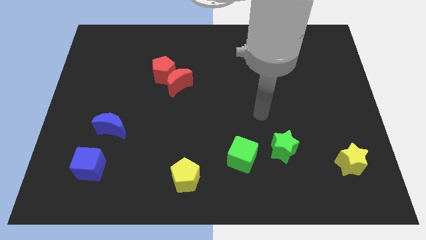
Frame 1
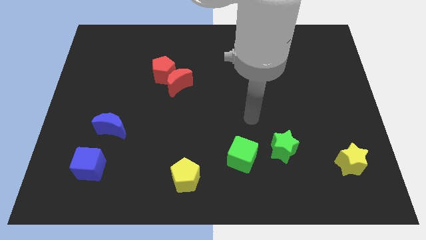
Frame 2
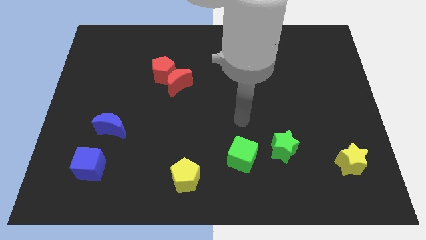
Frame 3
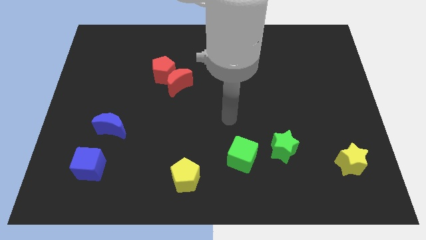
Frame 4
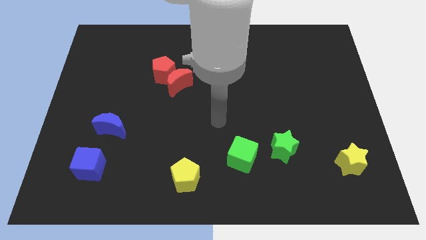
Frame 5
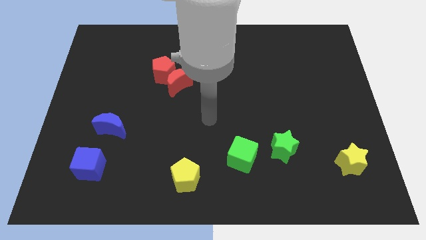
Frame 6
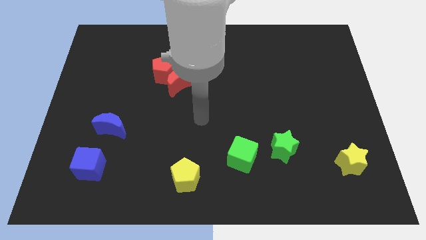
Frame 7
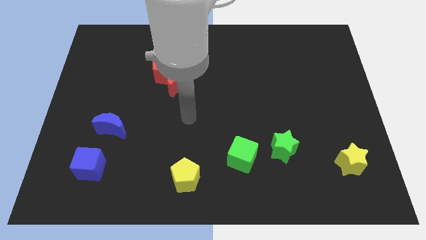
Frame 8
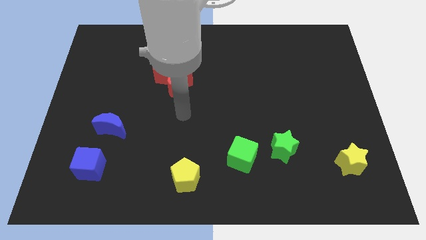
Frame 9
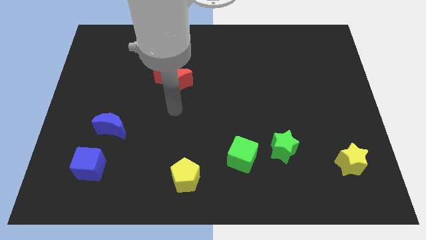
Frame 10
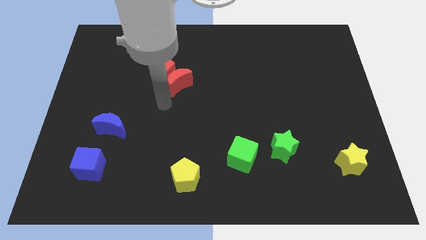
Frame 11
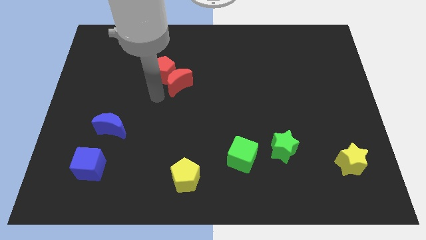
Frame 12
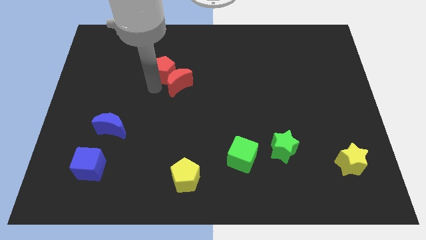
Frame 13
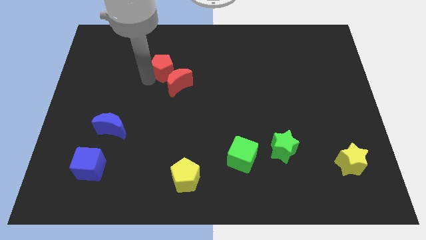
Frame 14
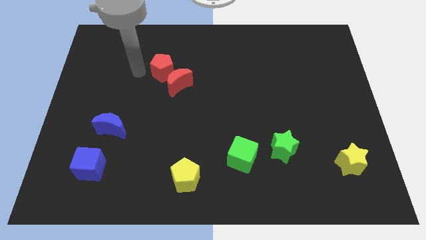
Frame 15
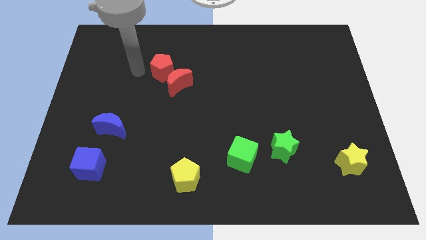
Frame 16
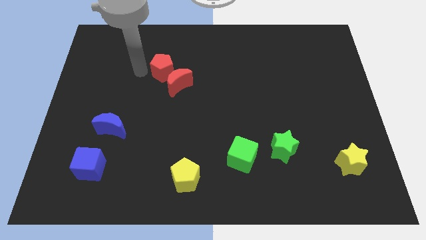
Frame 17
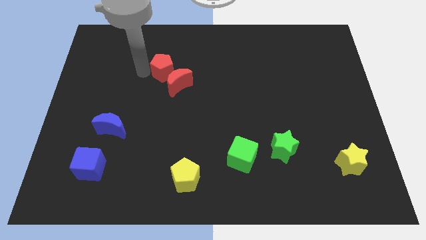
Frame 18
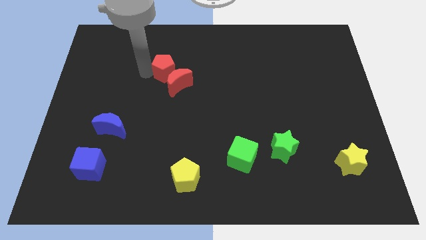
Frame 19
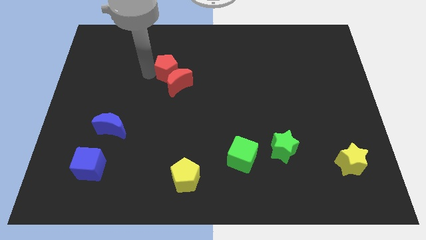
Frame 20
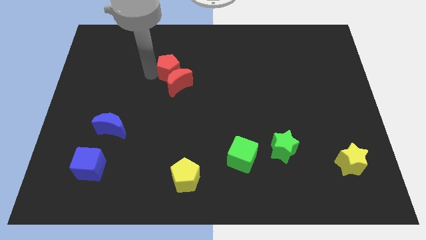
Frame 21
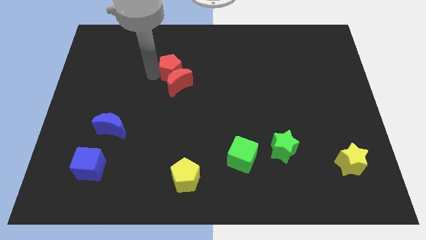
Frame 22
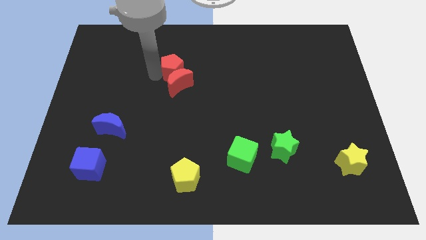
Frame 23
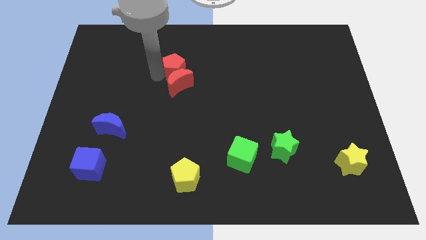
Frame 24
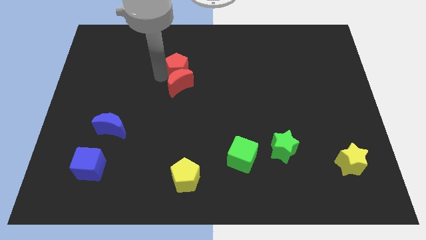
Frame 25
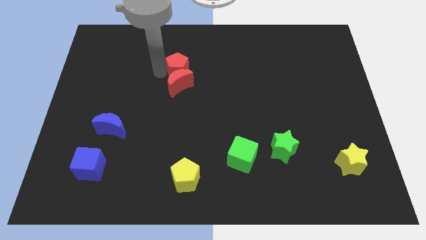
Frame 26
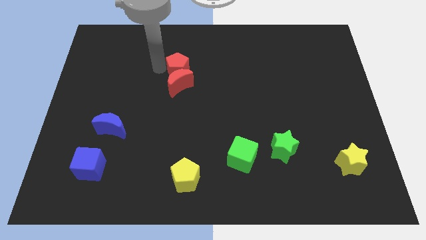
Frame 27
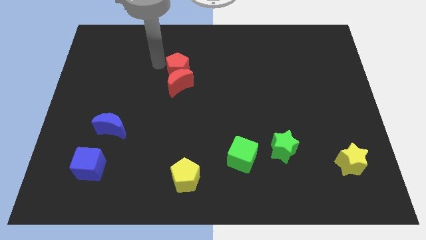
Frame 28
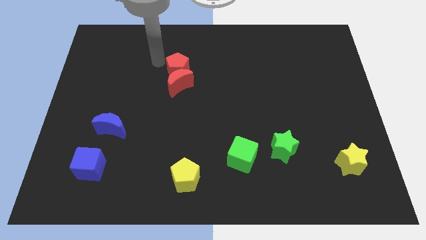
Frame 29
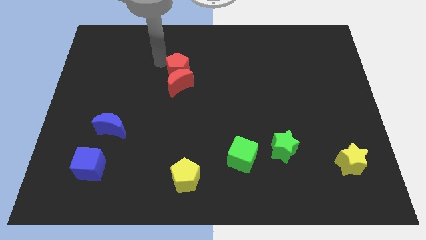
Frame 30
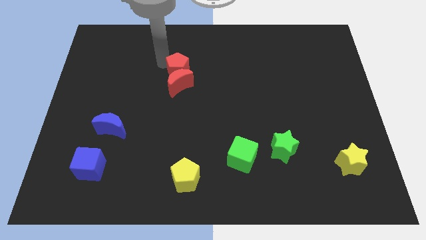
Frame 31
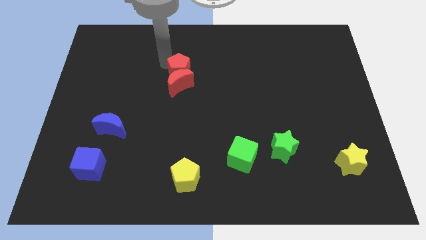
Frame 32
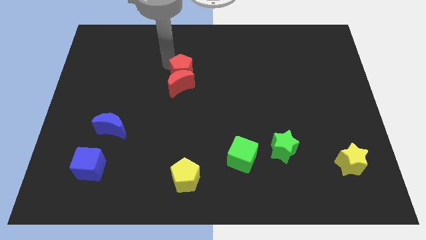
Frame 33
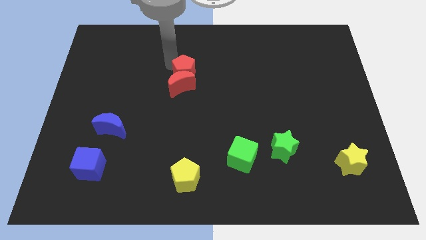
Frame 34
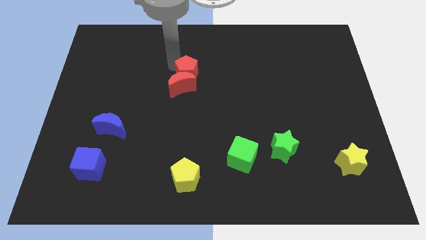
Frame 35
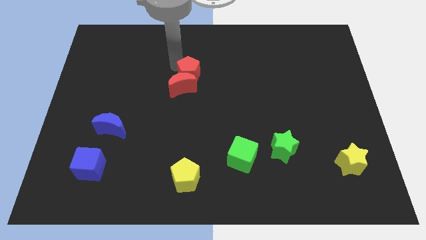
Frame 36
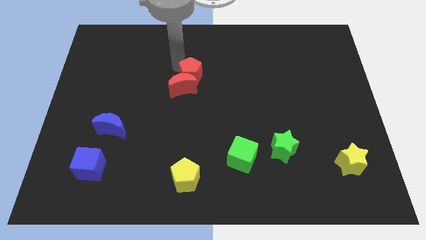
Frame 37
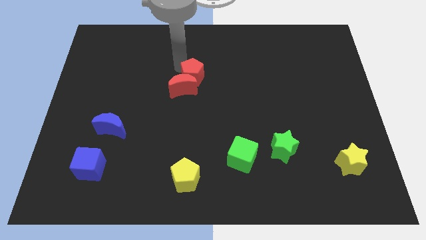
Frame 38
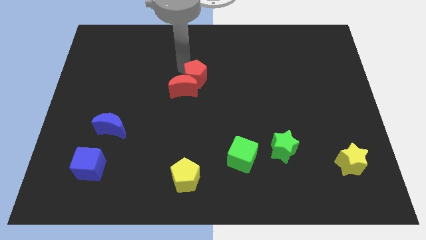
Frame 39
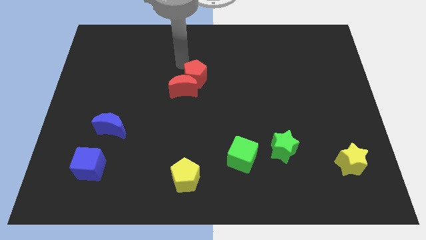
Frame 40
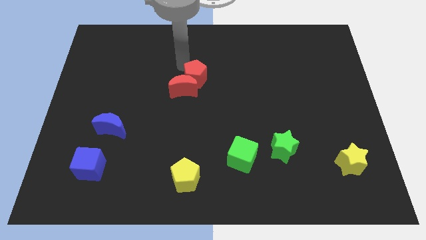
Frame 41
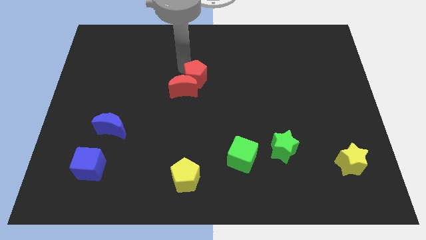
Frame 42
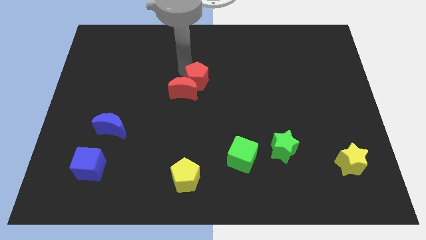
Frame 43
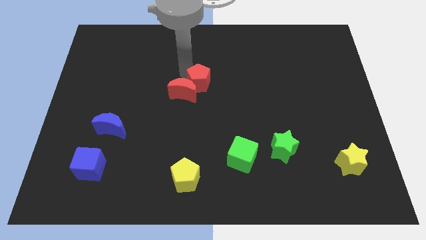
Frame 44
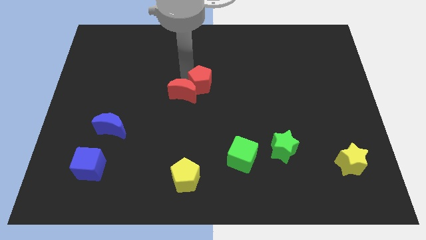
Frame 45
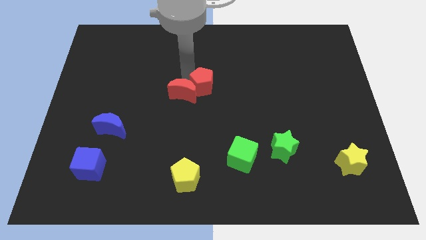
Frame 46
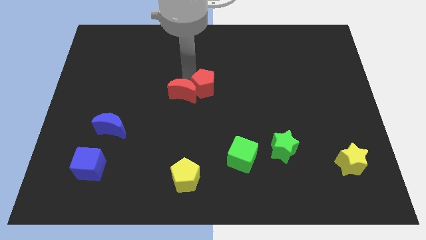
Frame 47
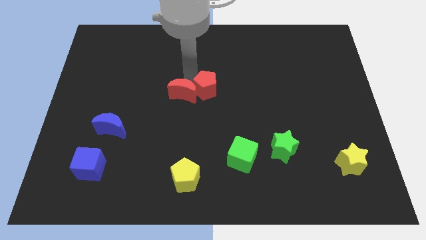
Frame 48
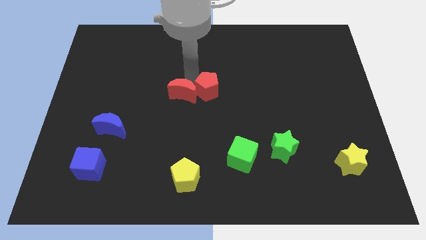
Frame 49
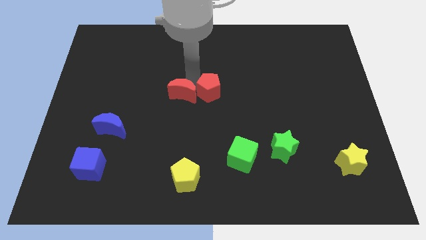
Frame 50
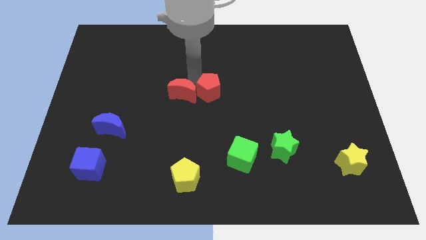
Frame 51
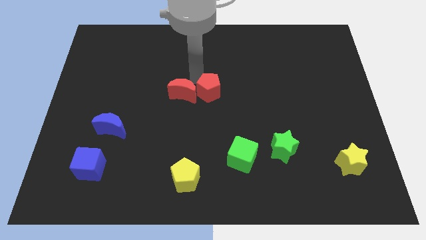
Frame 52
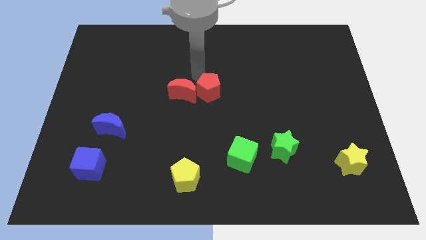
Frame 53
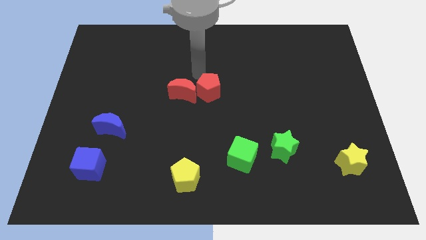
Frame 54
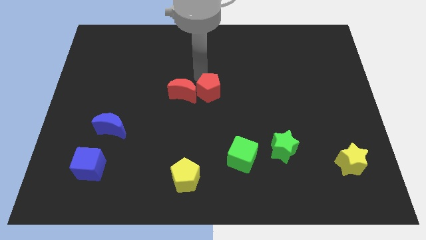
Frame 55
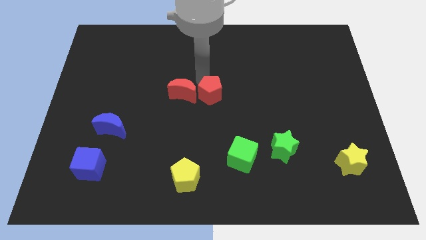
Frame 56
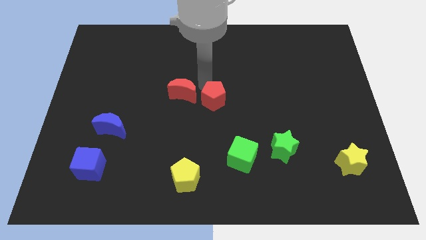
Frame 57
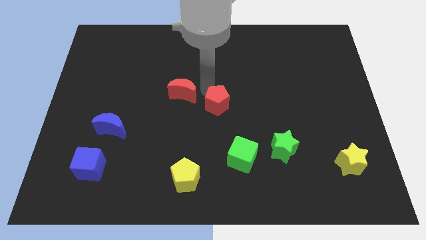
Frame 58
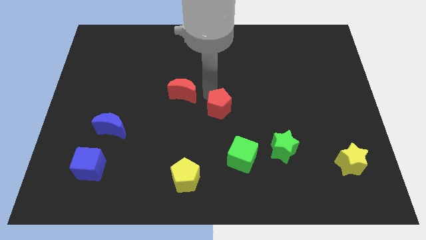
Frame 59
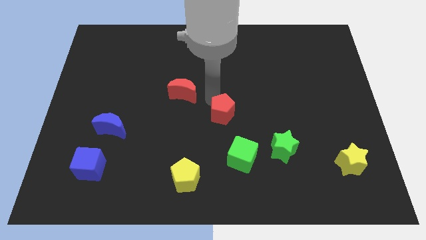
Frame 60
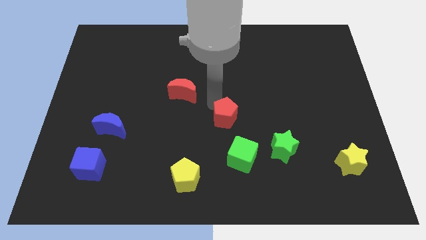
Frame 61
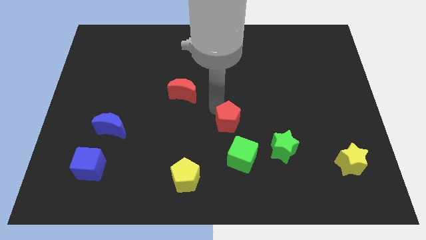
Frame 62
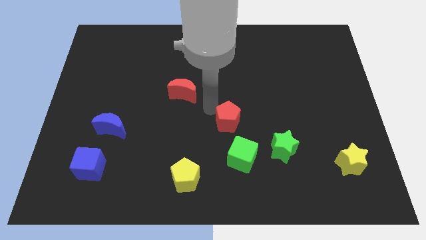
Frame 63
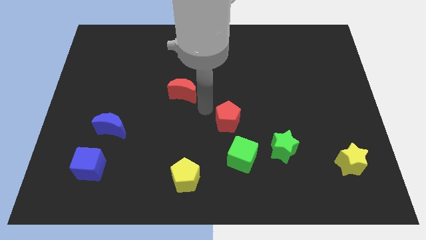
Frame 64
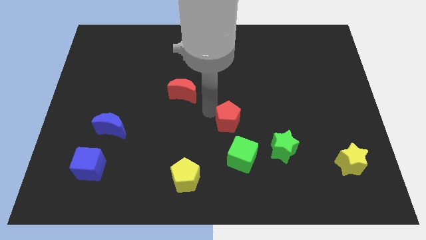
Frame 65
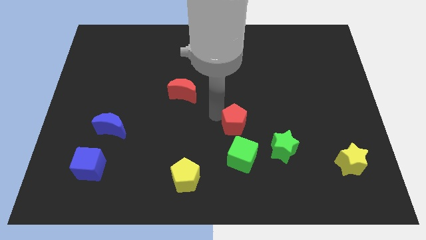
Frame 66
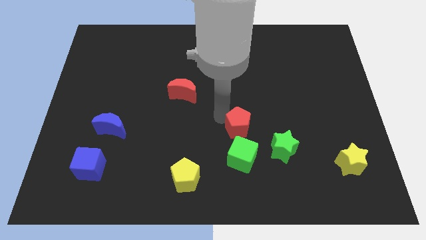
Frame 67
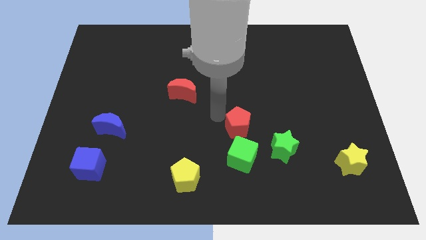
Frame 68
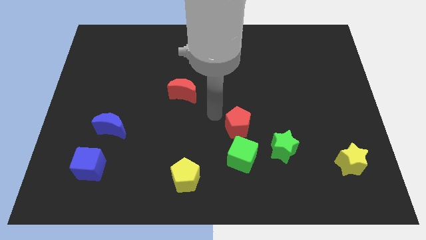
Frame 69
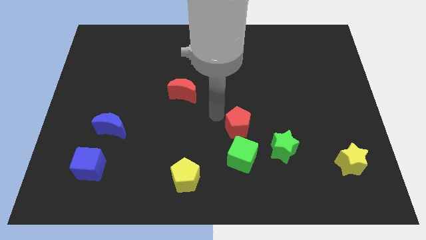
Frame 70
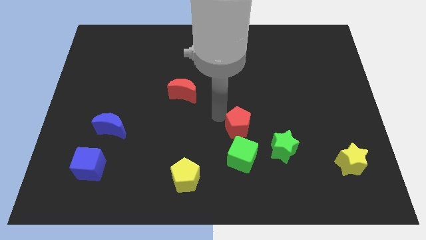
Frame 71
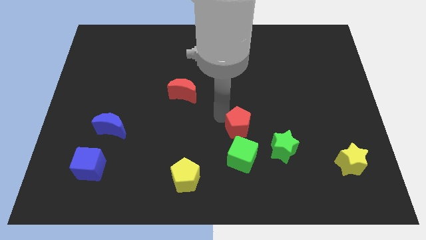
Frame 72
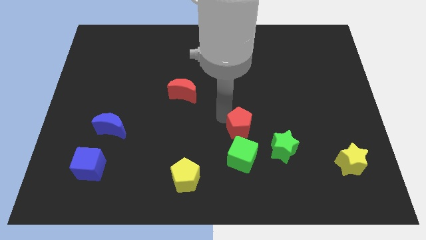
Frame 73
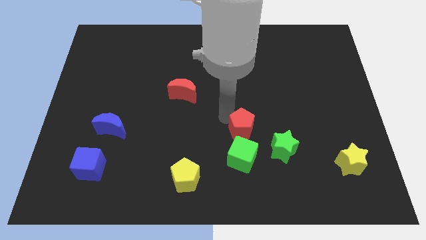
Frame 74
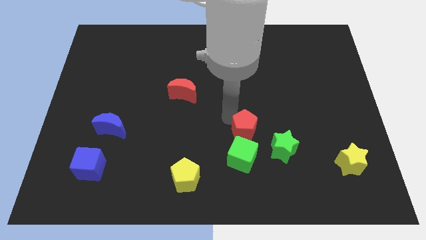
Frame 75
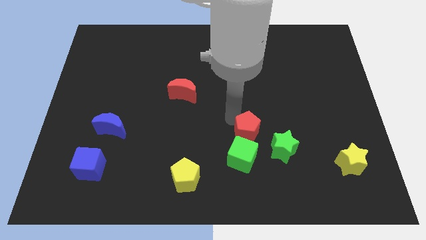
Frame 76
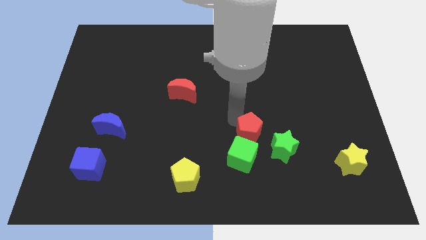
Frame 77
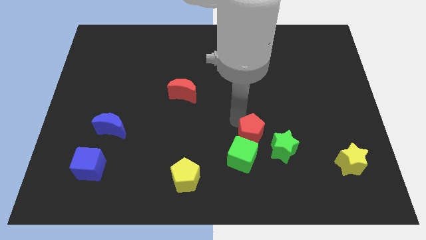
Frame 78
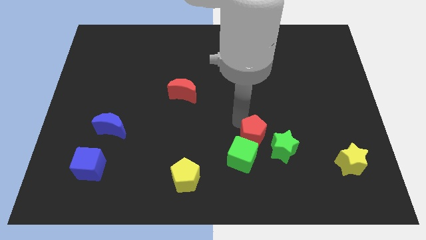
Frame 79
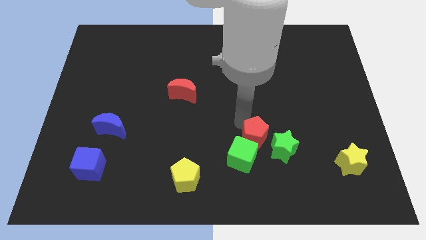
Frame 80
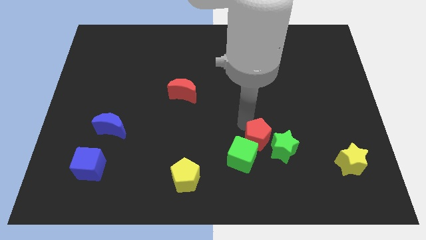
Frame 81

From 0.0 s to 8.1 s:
push the red pentagon towards the green star
